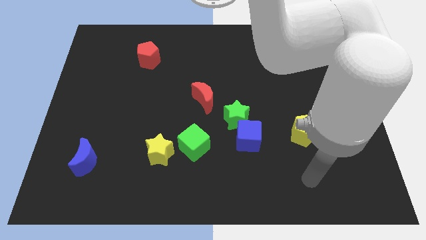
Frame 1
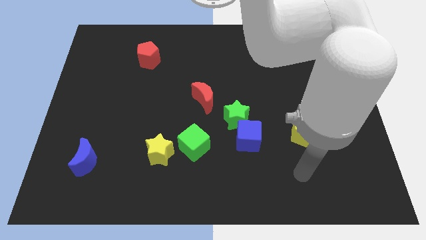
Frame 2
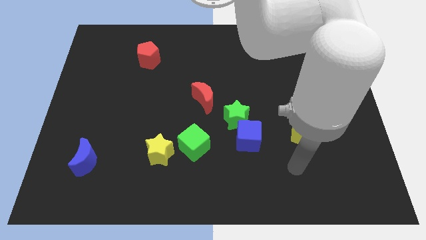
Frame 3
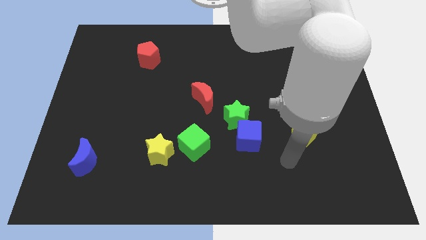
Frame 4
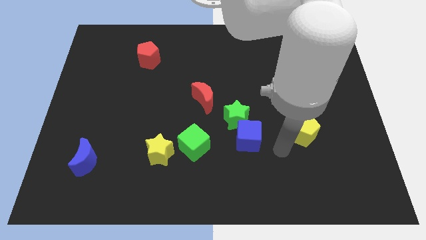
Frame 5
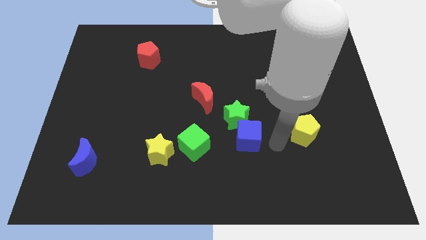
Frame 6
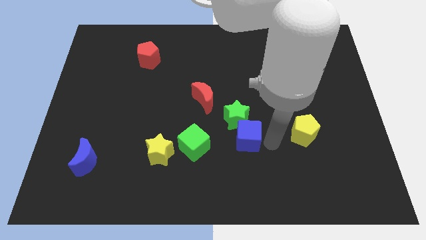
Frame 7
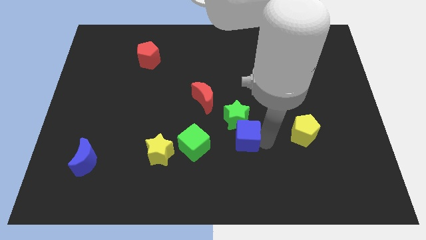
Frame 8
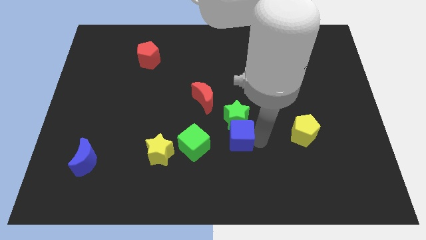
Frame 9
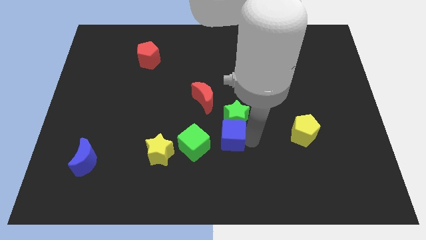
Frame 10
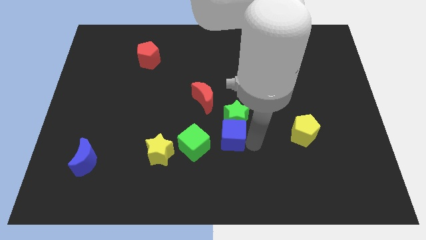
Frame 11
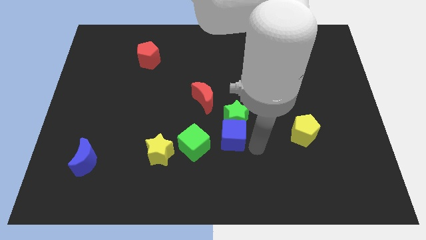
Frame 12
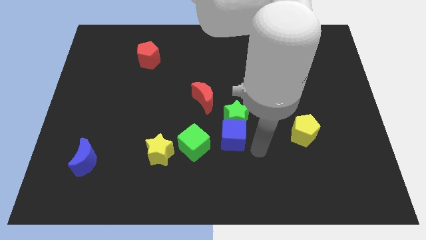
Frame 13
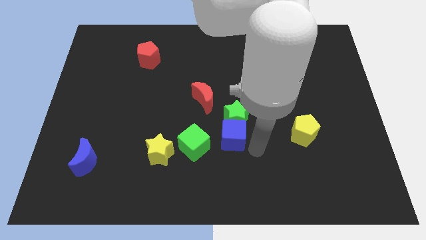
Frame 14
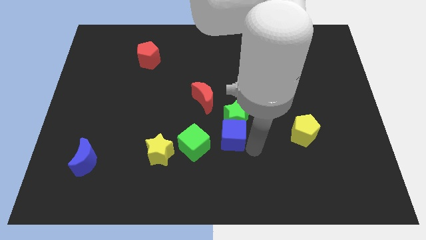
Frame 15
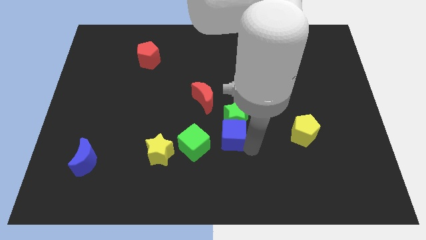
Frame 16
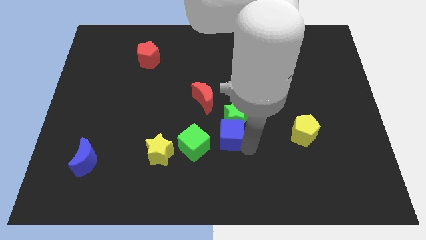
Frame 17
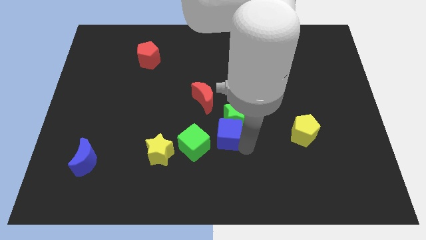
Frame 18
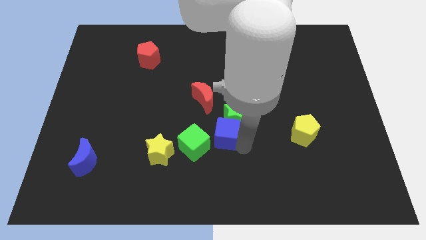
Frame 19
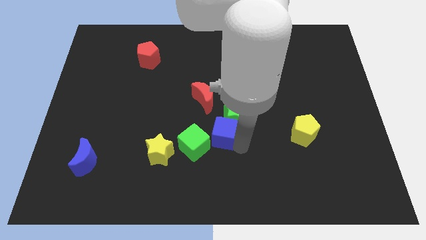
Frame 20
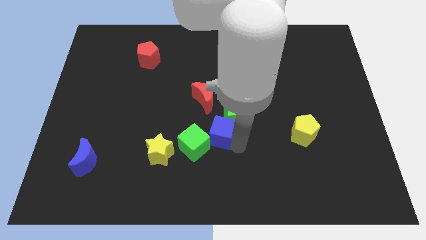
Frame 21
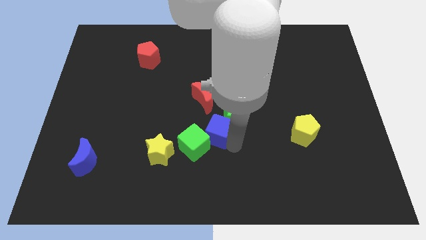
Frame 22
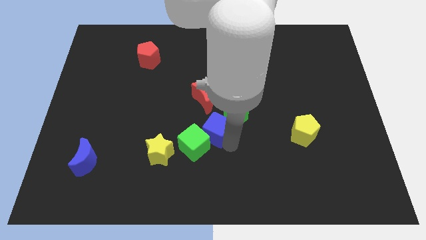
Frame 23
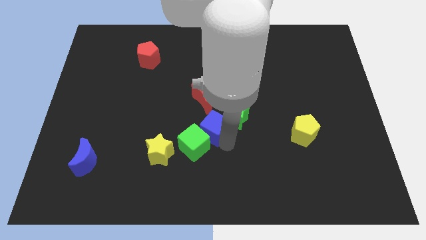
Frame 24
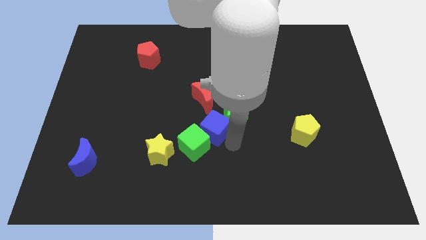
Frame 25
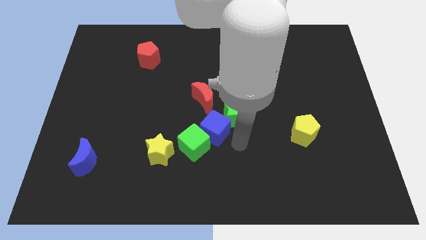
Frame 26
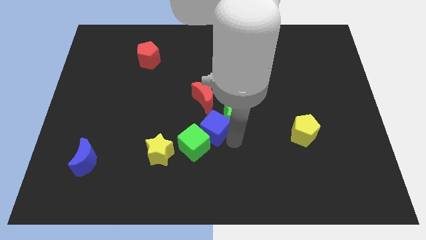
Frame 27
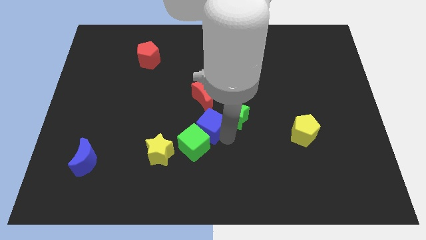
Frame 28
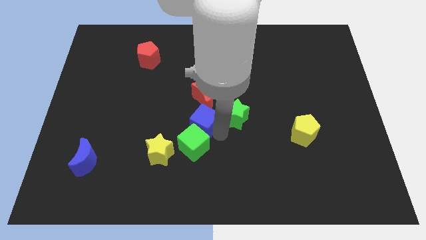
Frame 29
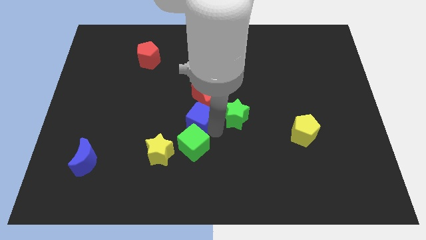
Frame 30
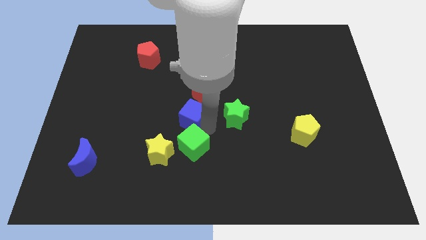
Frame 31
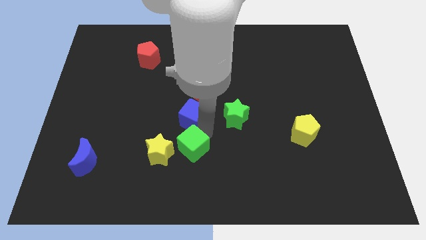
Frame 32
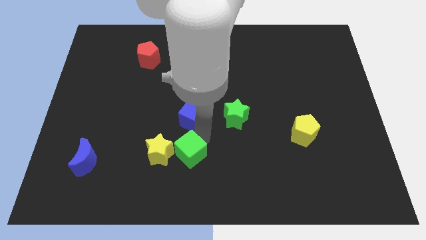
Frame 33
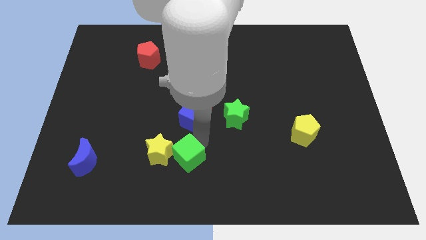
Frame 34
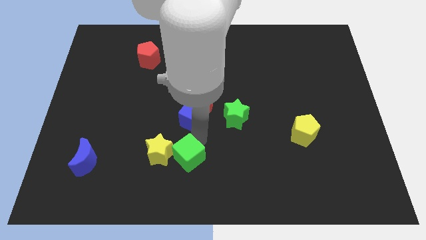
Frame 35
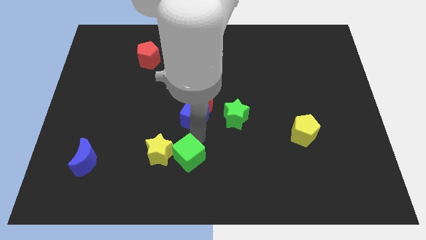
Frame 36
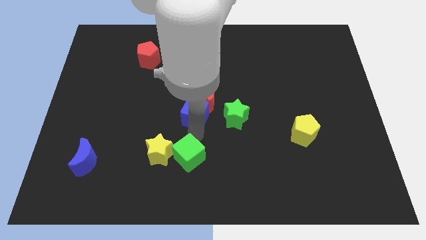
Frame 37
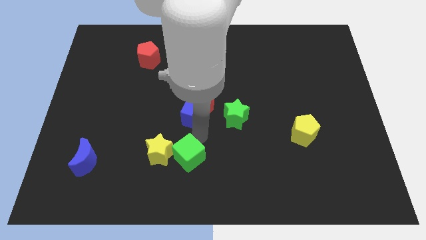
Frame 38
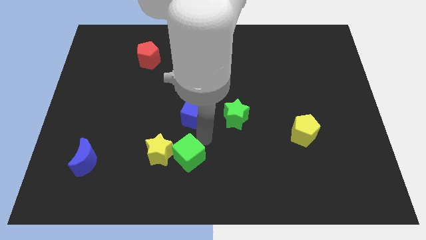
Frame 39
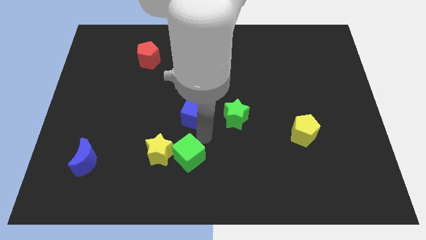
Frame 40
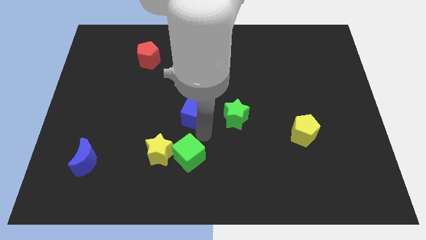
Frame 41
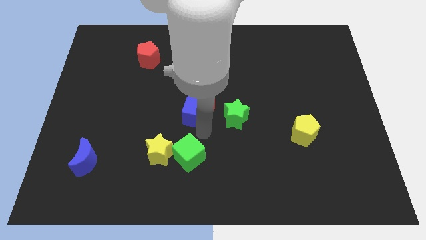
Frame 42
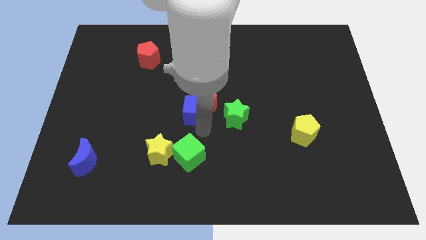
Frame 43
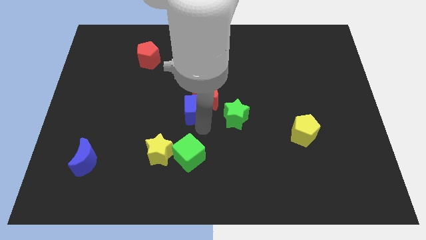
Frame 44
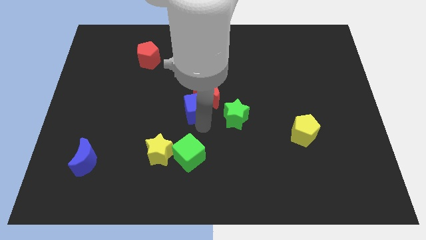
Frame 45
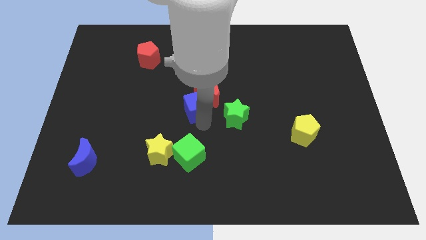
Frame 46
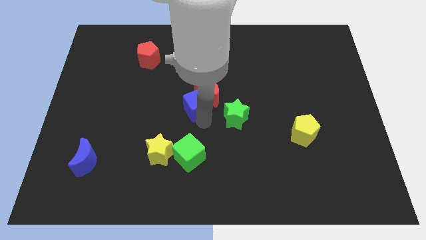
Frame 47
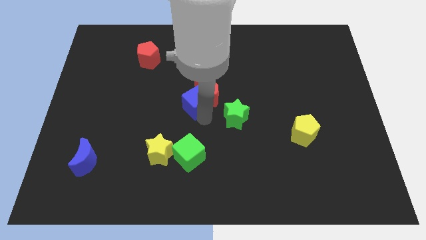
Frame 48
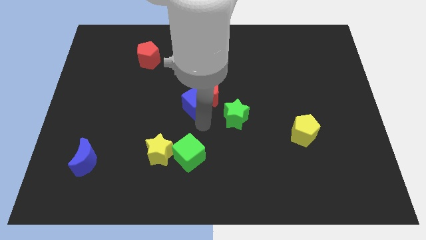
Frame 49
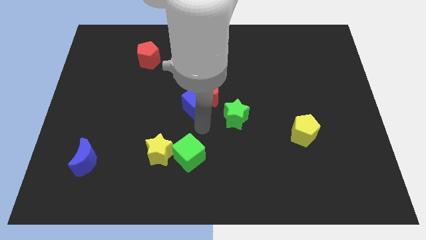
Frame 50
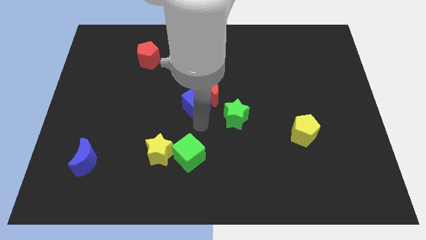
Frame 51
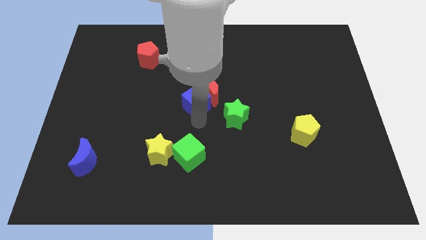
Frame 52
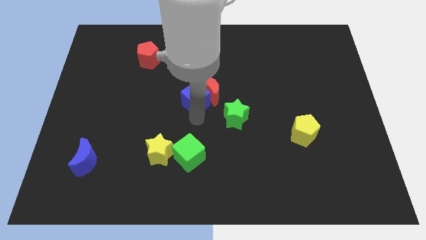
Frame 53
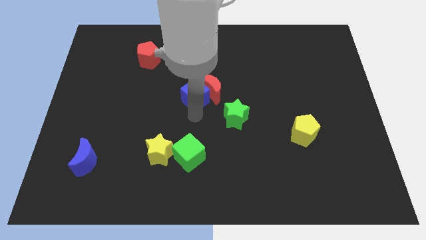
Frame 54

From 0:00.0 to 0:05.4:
slide the blue cube to the top left of the red moon

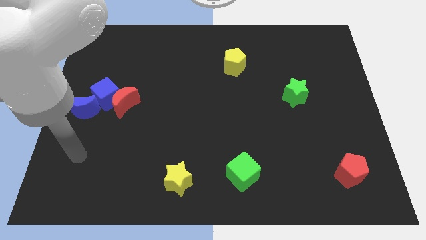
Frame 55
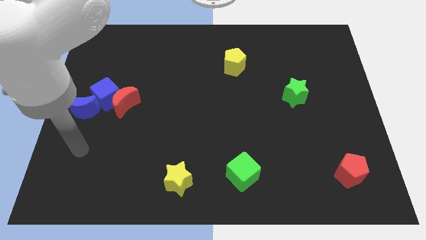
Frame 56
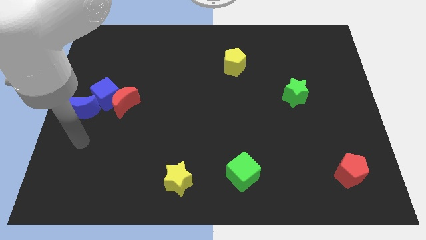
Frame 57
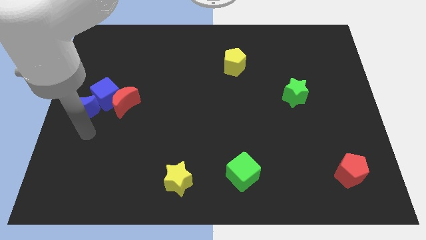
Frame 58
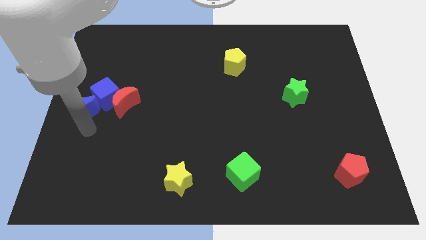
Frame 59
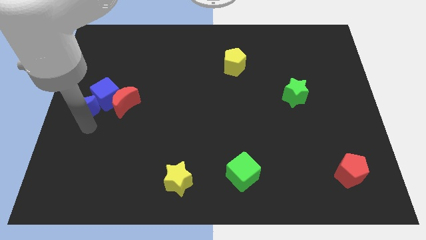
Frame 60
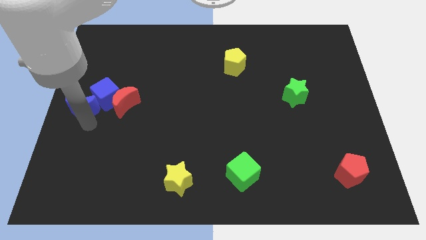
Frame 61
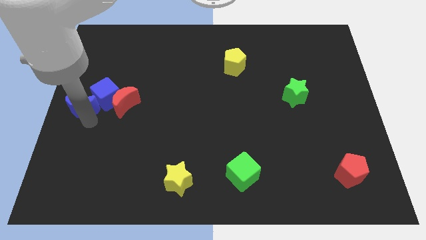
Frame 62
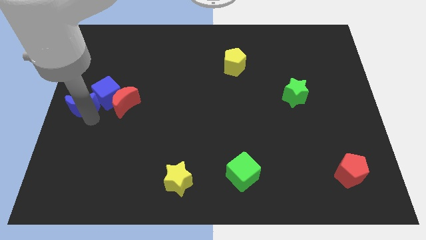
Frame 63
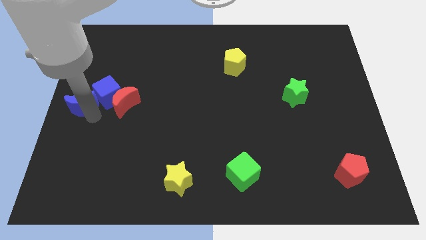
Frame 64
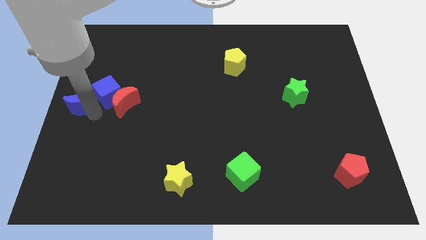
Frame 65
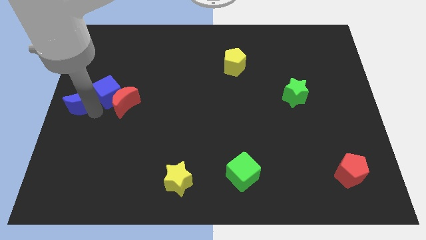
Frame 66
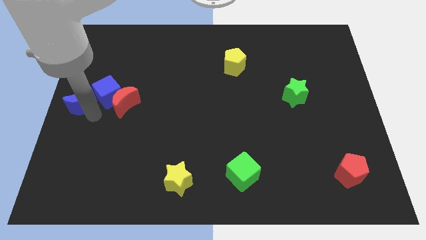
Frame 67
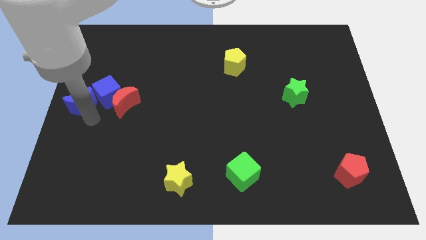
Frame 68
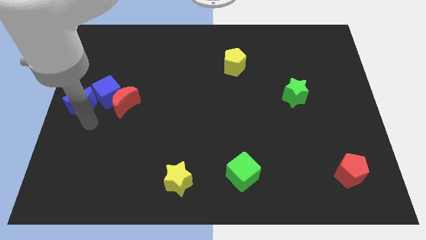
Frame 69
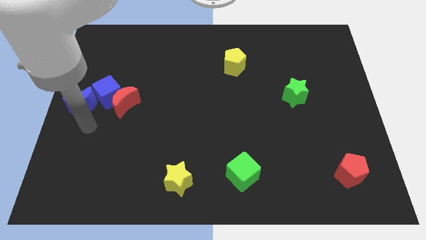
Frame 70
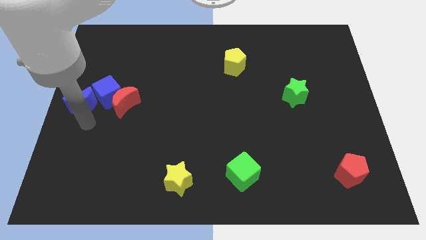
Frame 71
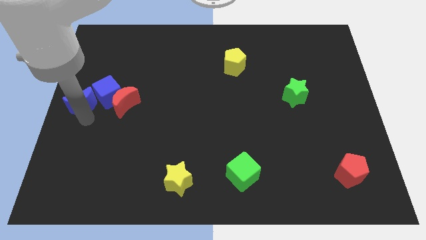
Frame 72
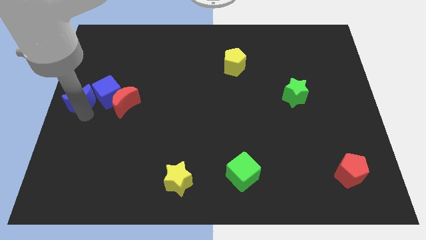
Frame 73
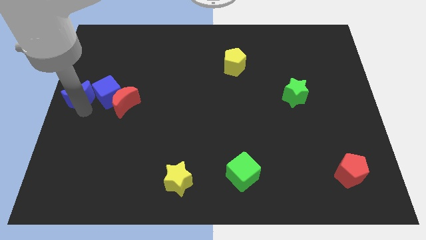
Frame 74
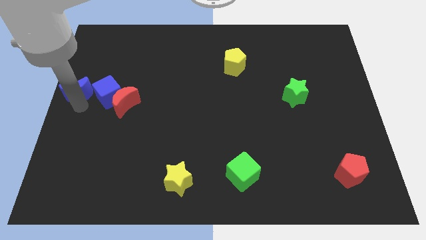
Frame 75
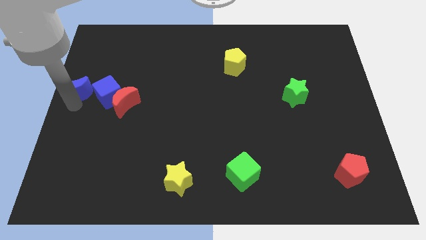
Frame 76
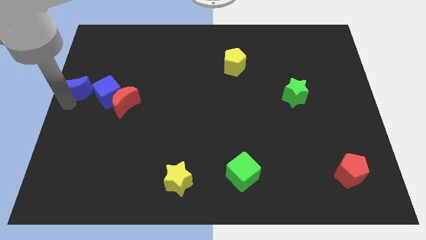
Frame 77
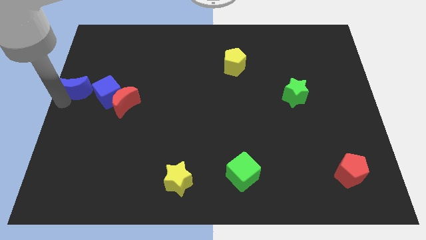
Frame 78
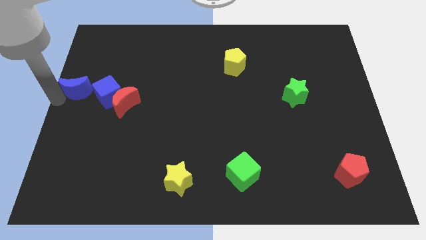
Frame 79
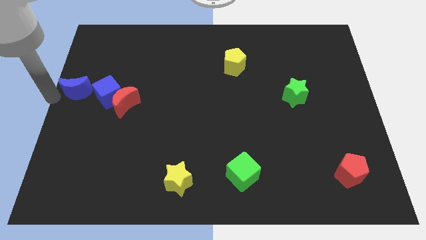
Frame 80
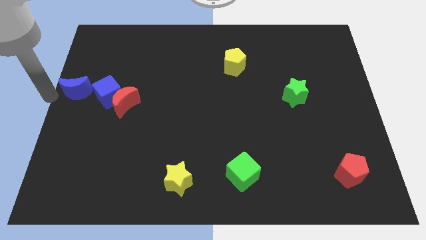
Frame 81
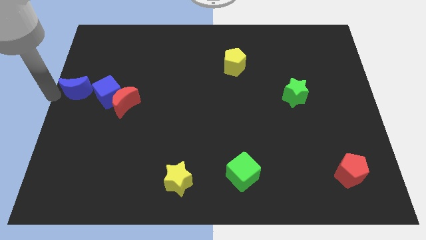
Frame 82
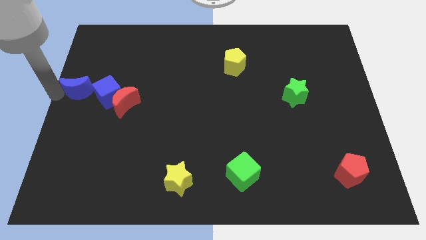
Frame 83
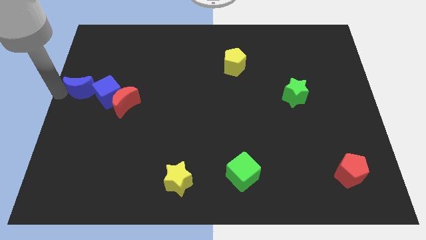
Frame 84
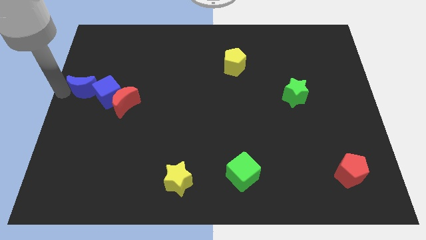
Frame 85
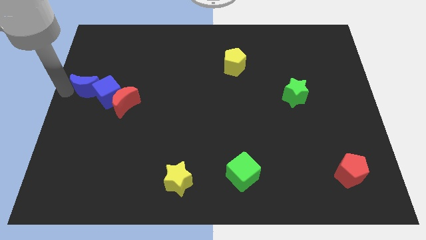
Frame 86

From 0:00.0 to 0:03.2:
slide the blue moon diagonally up and to the left of the red moon
